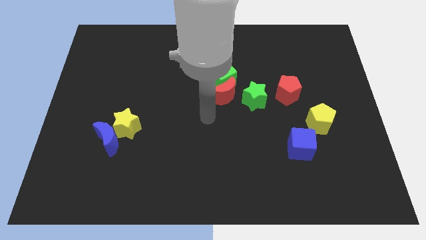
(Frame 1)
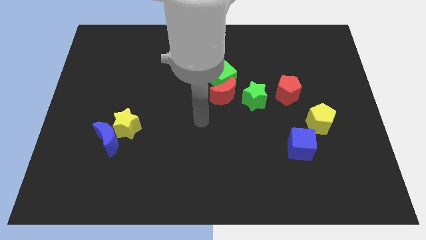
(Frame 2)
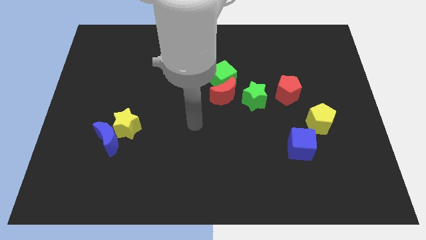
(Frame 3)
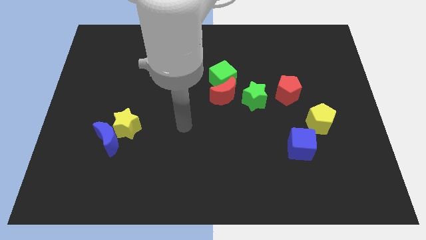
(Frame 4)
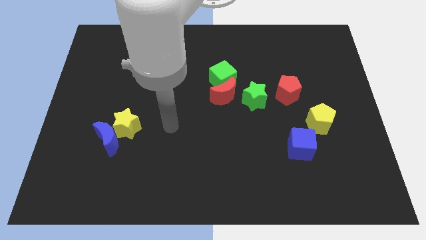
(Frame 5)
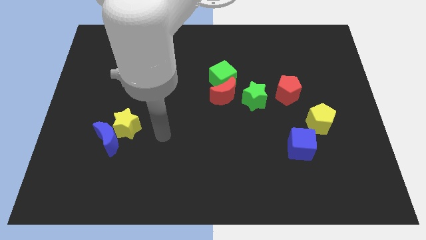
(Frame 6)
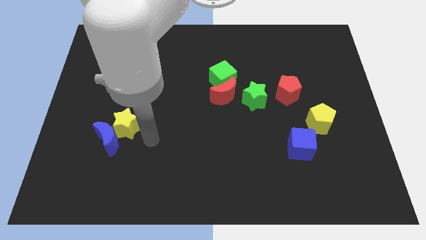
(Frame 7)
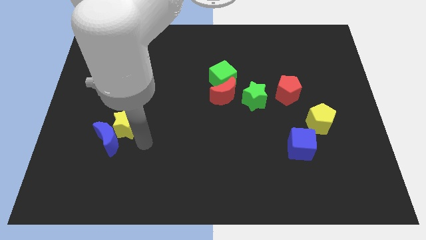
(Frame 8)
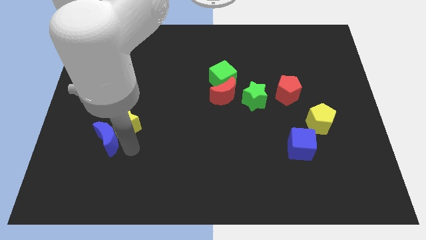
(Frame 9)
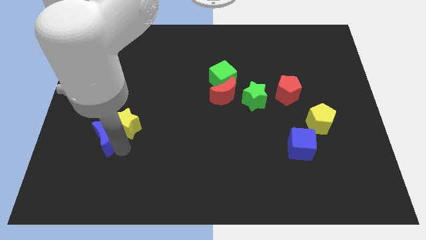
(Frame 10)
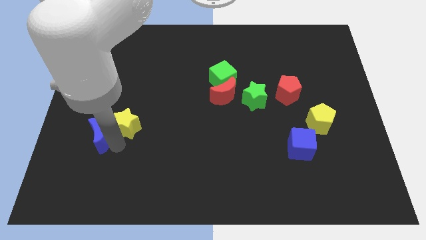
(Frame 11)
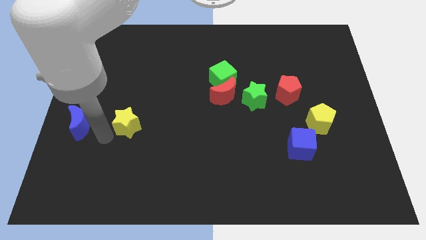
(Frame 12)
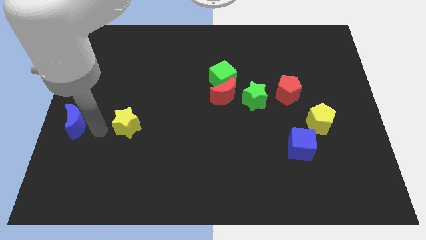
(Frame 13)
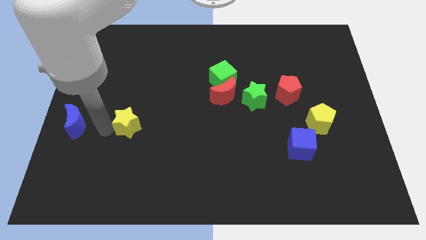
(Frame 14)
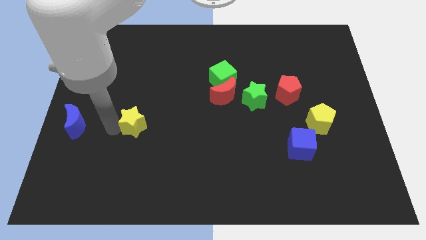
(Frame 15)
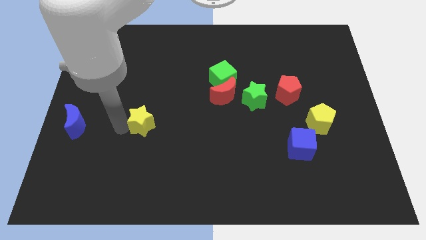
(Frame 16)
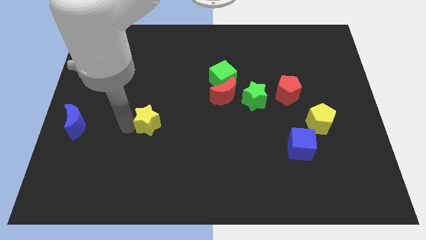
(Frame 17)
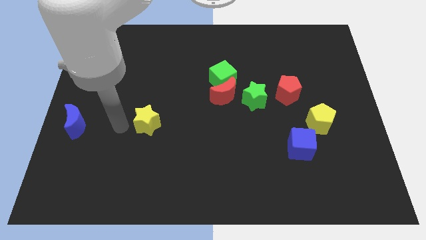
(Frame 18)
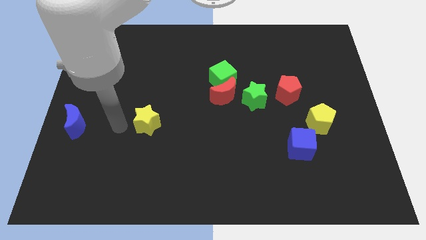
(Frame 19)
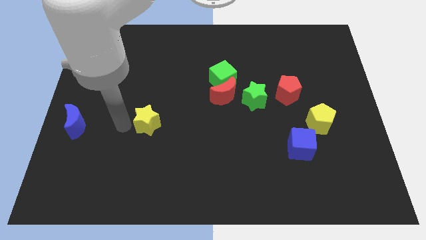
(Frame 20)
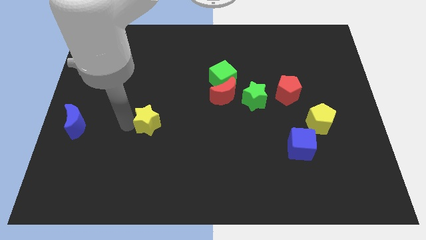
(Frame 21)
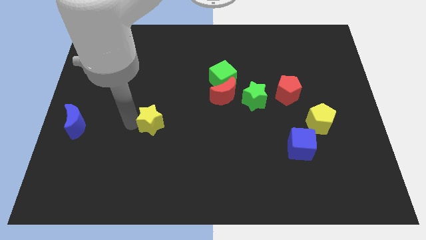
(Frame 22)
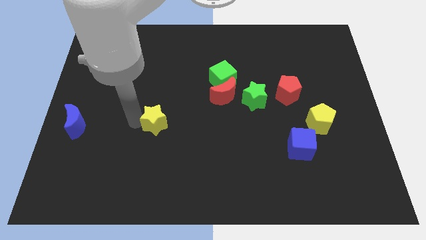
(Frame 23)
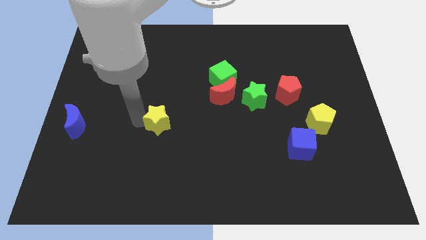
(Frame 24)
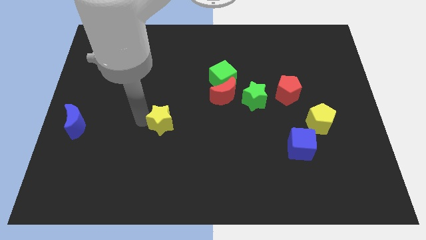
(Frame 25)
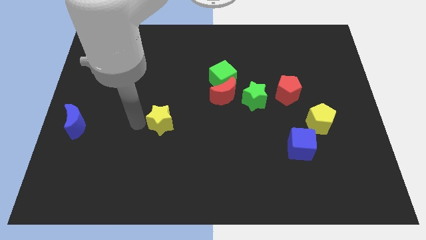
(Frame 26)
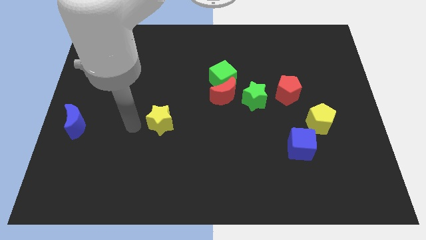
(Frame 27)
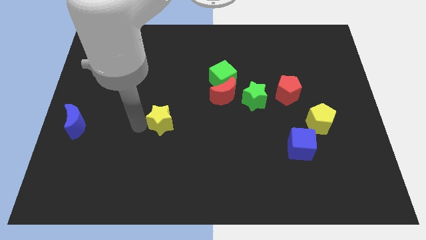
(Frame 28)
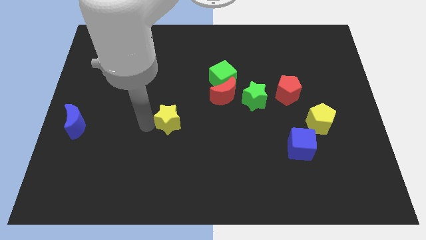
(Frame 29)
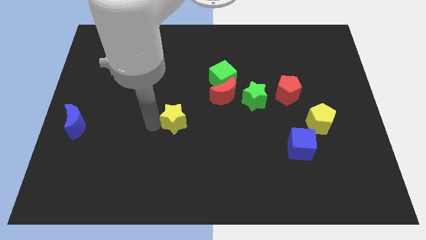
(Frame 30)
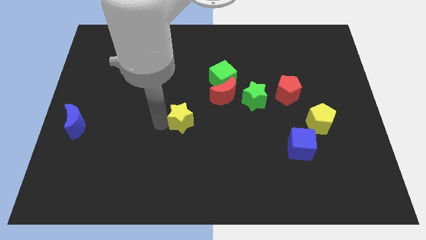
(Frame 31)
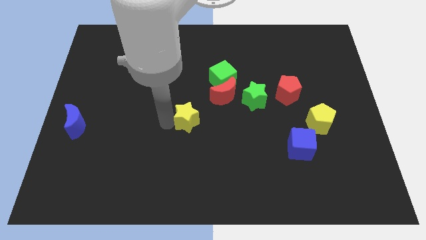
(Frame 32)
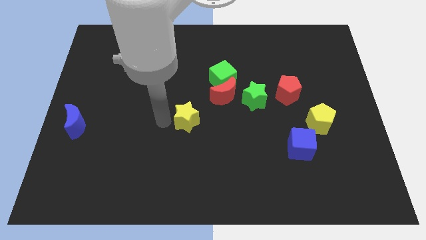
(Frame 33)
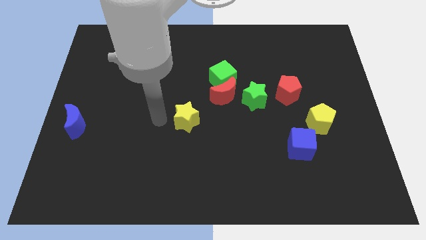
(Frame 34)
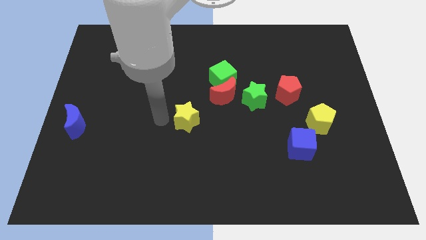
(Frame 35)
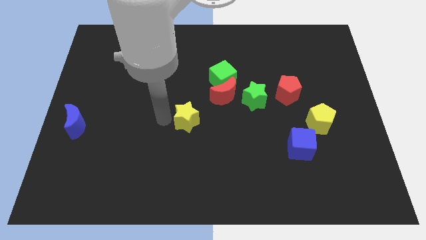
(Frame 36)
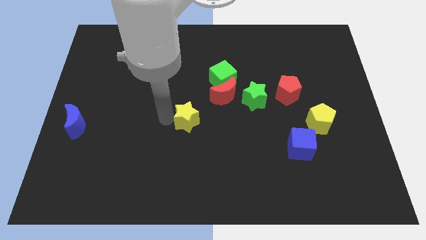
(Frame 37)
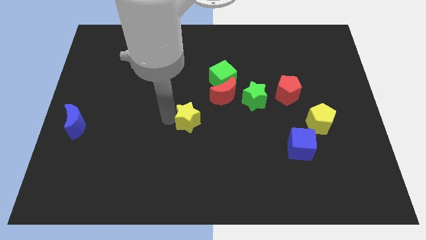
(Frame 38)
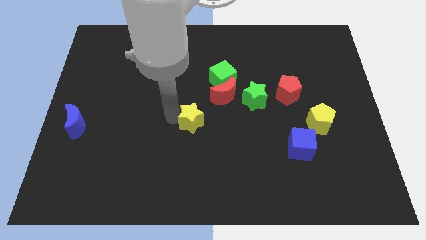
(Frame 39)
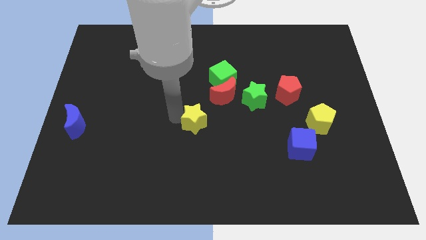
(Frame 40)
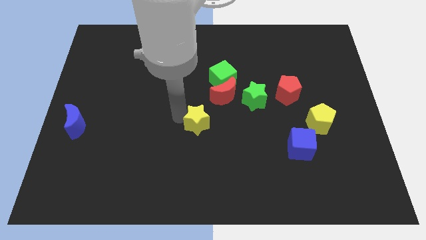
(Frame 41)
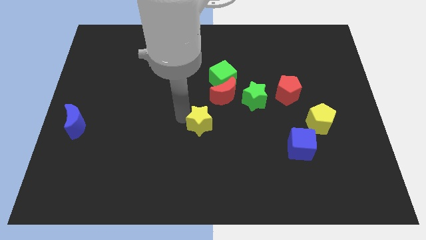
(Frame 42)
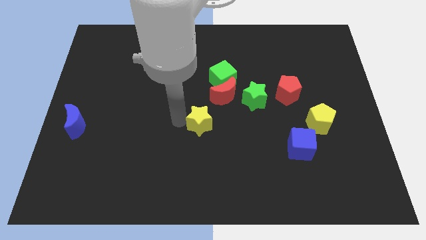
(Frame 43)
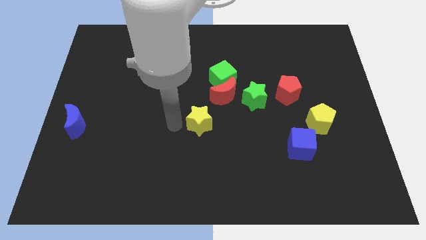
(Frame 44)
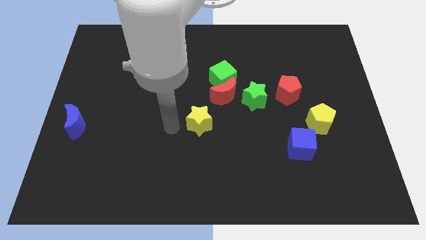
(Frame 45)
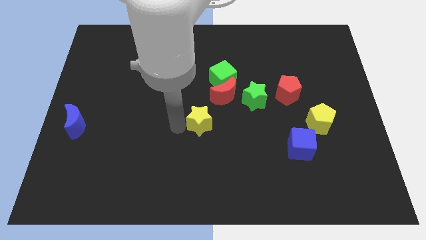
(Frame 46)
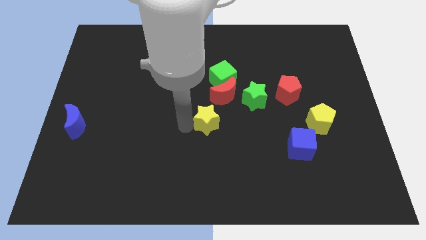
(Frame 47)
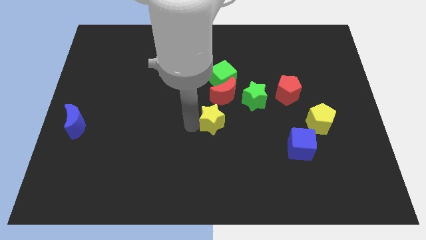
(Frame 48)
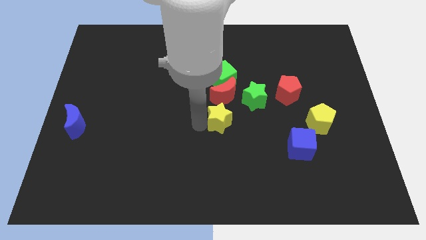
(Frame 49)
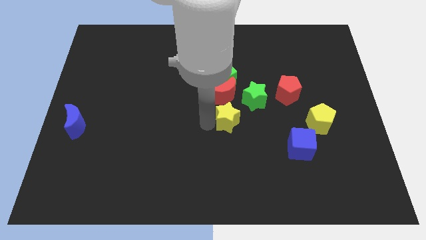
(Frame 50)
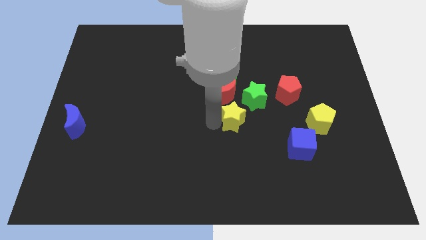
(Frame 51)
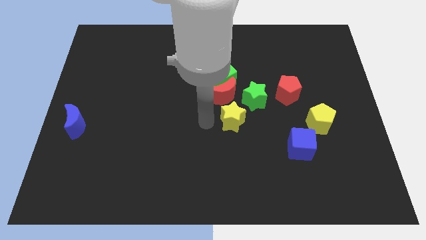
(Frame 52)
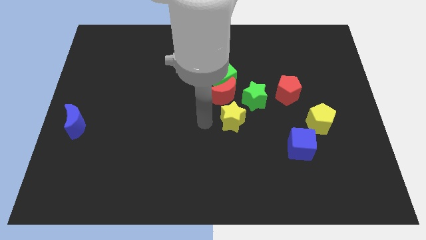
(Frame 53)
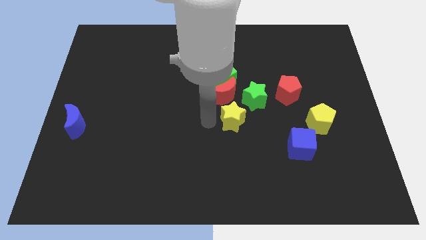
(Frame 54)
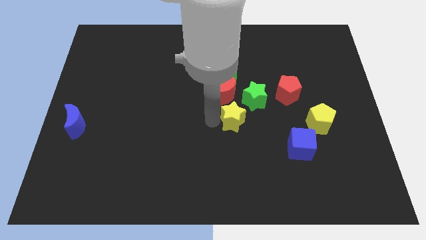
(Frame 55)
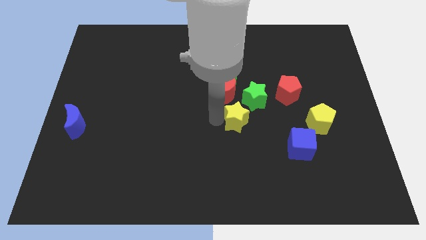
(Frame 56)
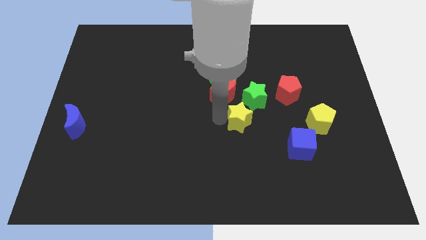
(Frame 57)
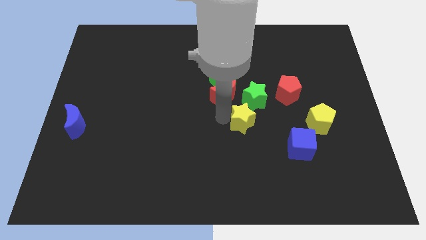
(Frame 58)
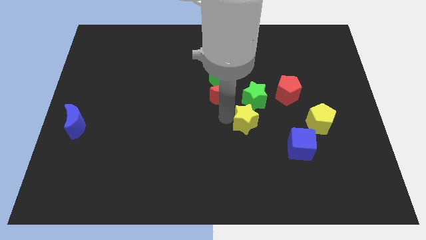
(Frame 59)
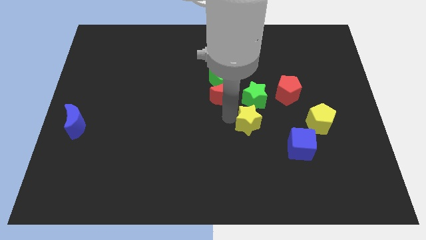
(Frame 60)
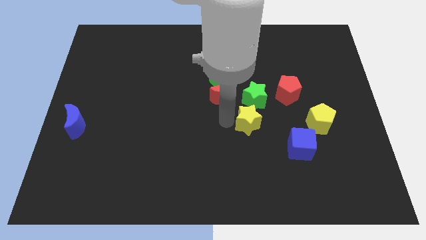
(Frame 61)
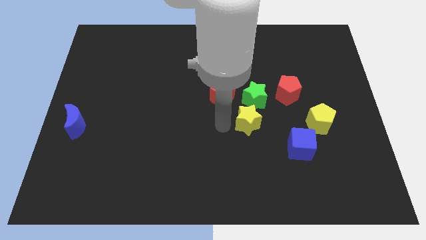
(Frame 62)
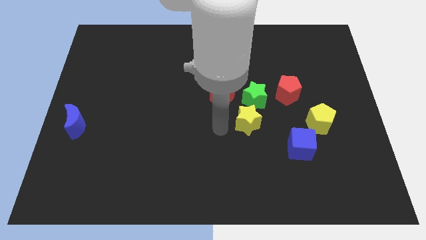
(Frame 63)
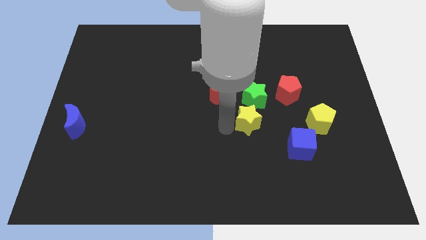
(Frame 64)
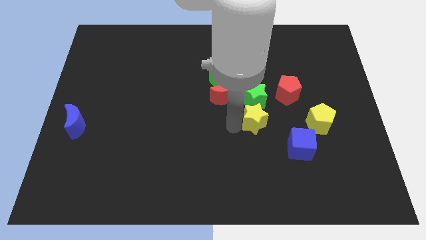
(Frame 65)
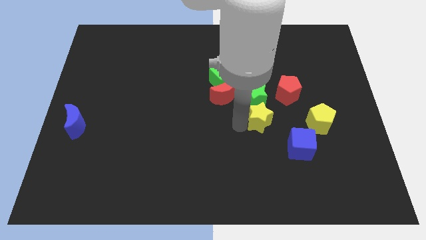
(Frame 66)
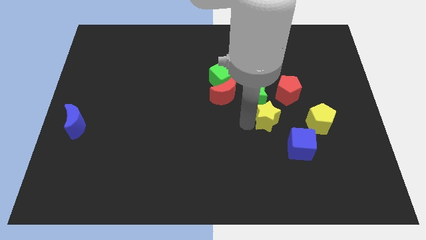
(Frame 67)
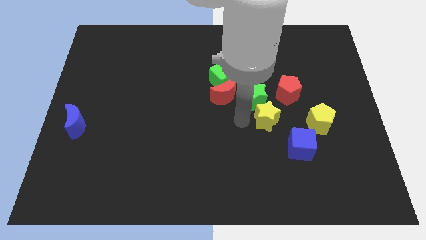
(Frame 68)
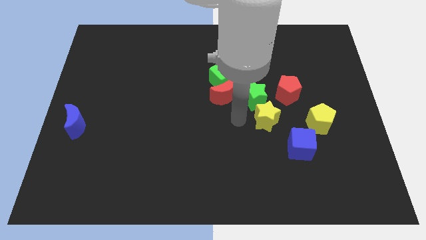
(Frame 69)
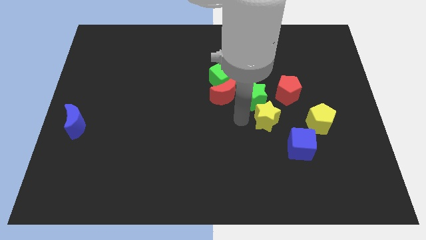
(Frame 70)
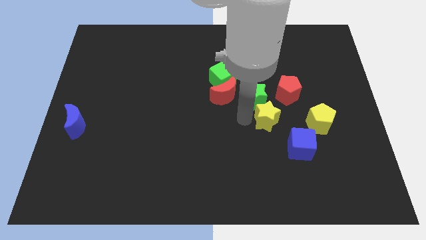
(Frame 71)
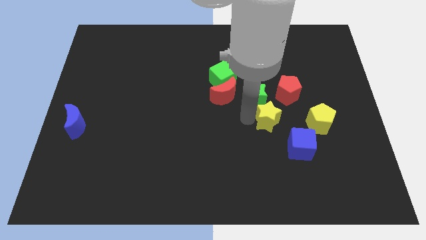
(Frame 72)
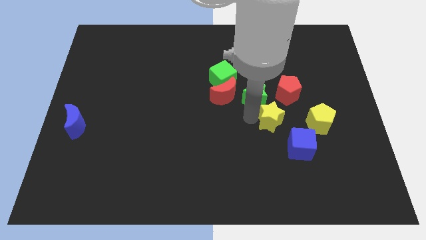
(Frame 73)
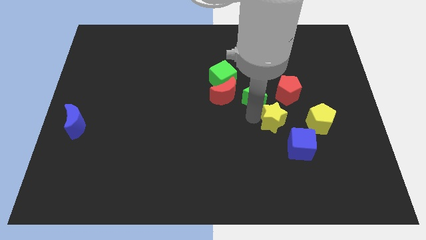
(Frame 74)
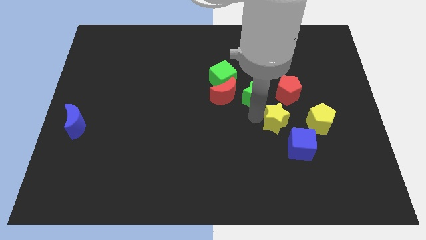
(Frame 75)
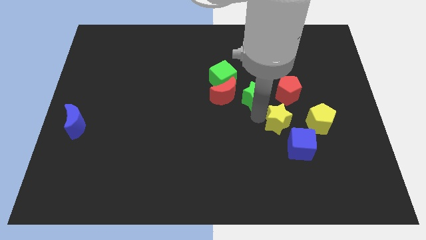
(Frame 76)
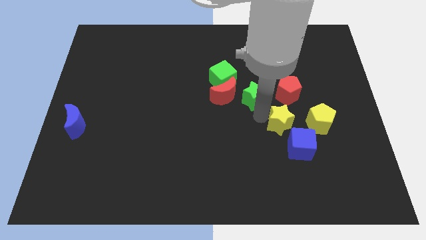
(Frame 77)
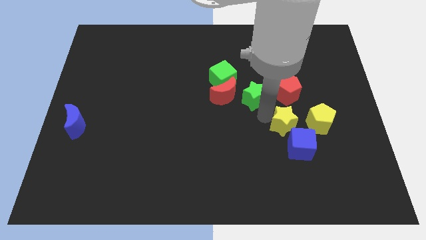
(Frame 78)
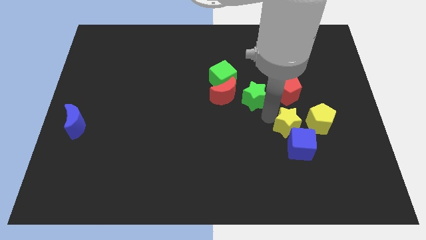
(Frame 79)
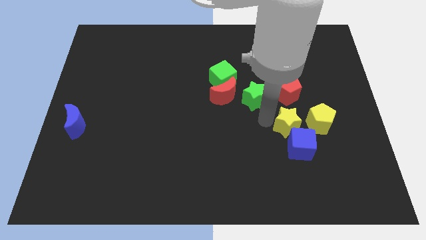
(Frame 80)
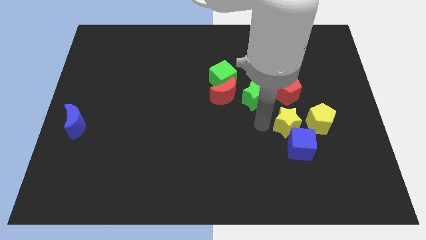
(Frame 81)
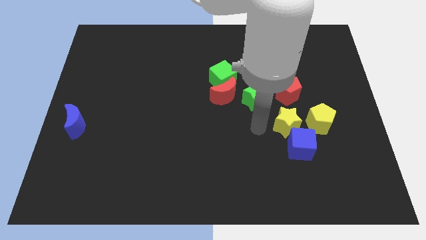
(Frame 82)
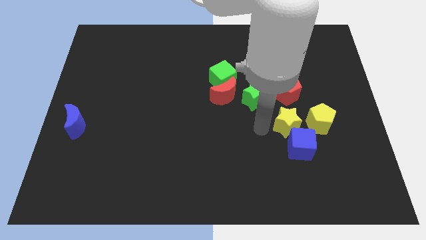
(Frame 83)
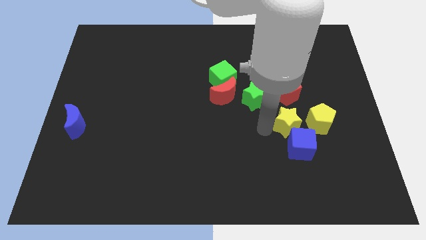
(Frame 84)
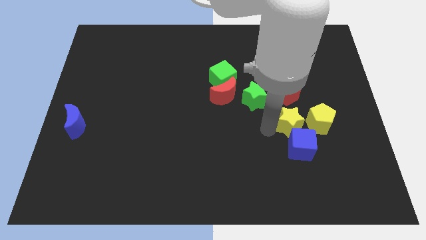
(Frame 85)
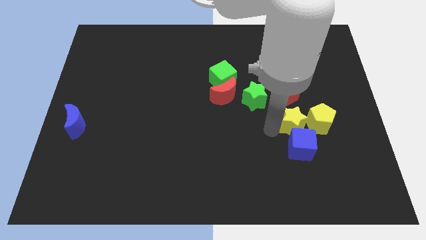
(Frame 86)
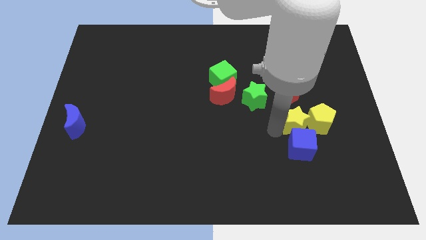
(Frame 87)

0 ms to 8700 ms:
slide the yellow star next to the yellow pentagon
